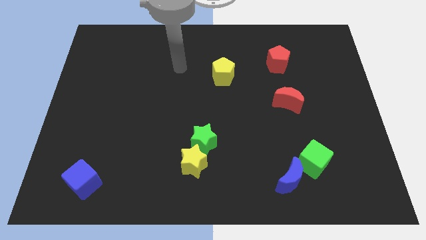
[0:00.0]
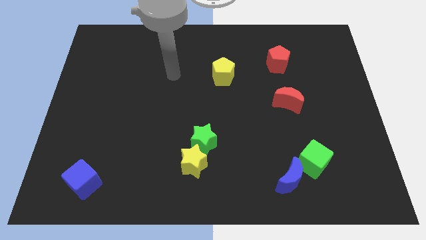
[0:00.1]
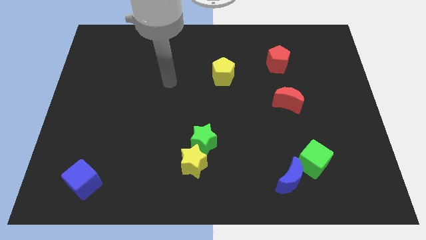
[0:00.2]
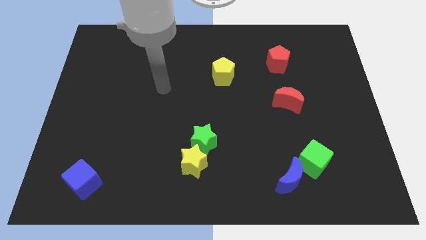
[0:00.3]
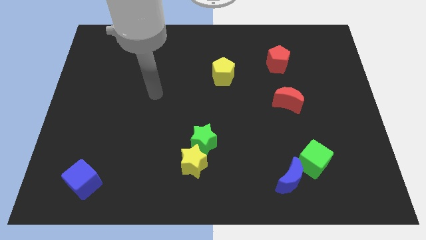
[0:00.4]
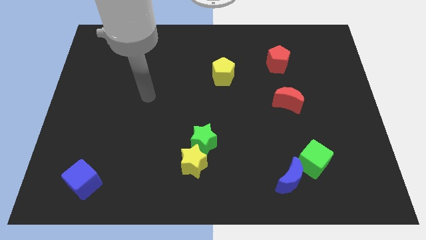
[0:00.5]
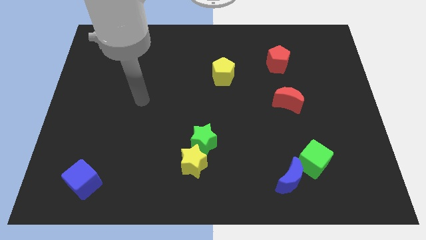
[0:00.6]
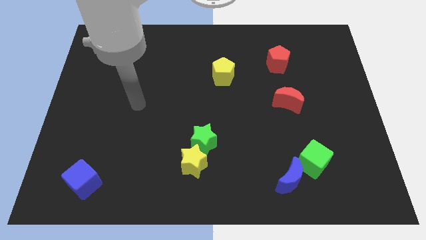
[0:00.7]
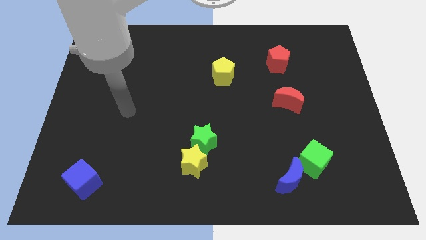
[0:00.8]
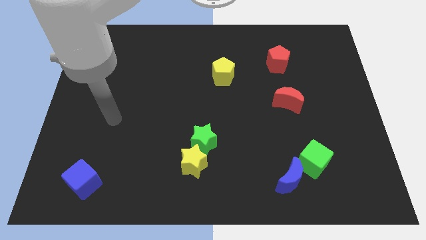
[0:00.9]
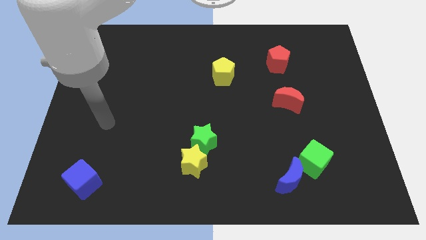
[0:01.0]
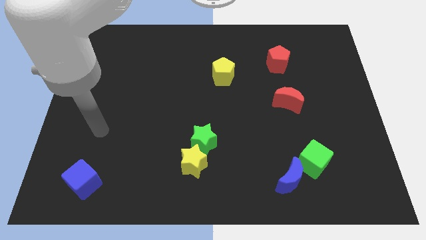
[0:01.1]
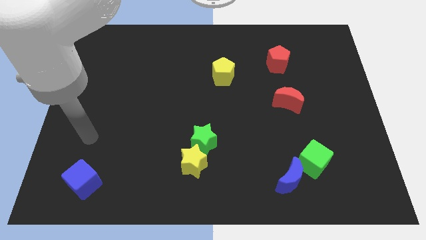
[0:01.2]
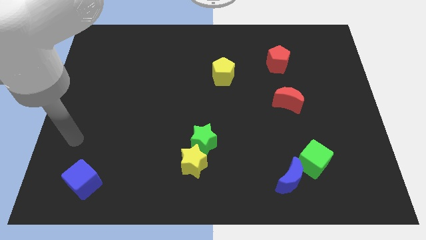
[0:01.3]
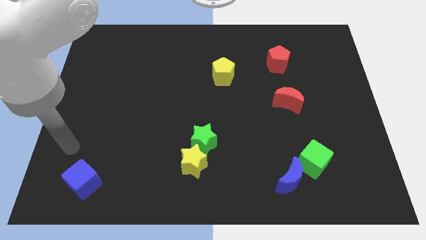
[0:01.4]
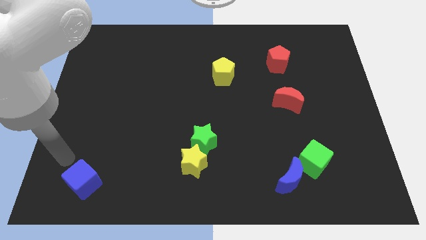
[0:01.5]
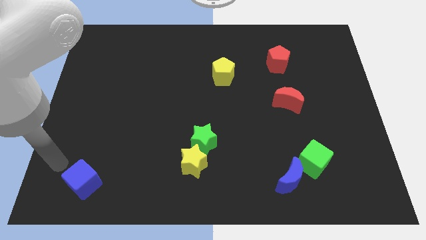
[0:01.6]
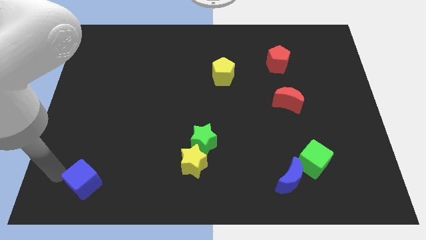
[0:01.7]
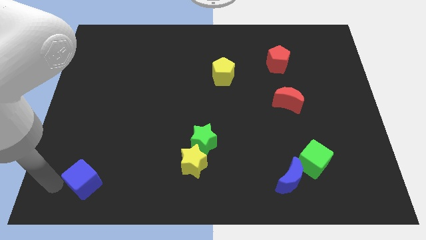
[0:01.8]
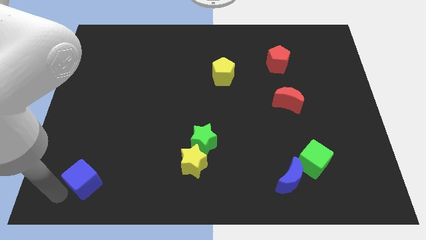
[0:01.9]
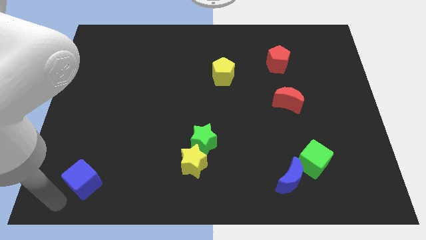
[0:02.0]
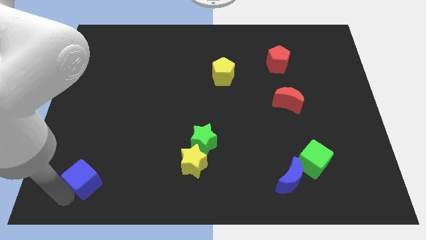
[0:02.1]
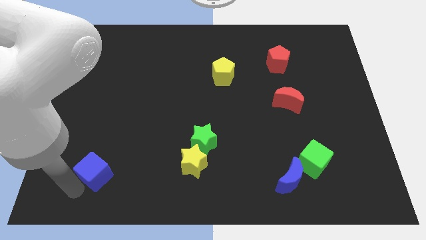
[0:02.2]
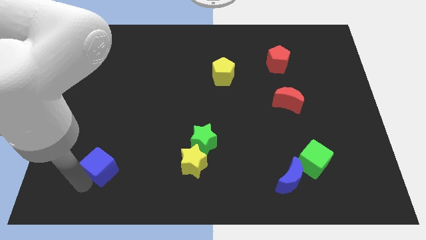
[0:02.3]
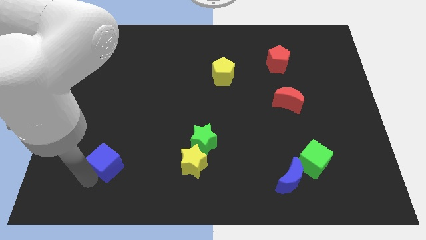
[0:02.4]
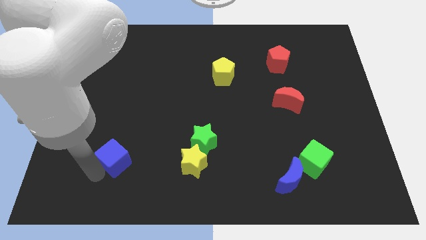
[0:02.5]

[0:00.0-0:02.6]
move the blue cube up and right slightly

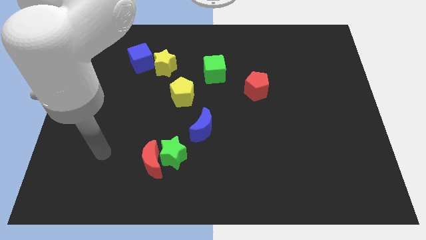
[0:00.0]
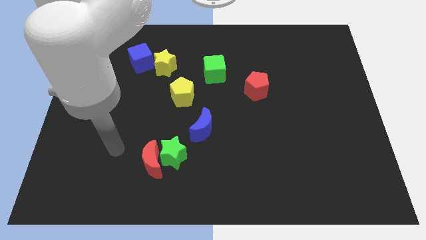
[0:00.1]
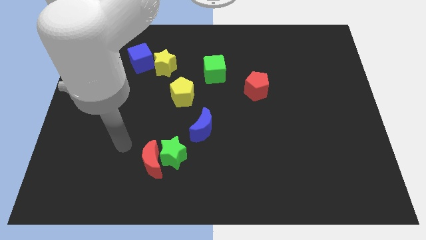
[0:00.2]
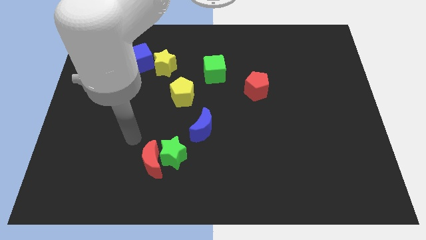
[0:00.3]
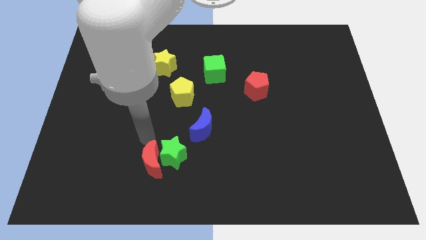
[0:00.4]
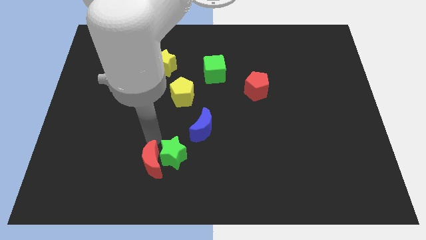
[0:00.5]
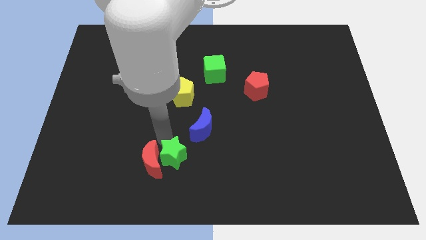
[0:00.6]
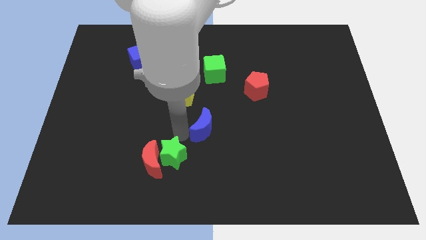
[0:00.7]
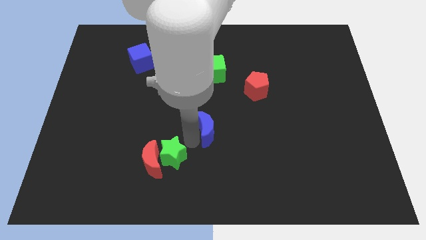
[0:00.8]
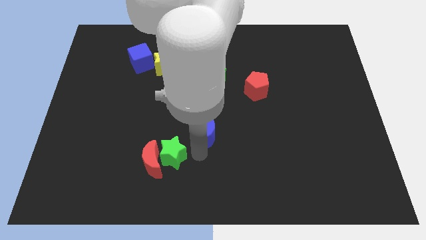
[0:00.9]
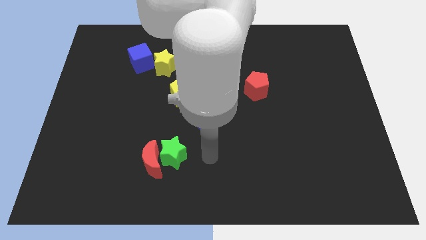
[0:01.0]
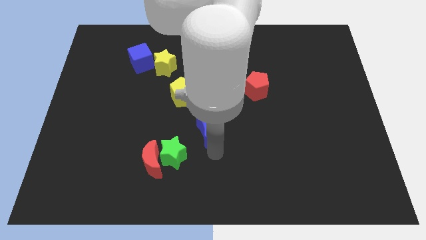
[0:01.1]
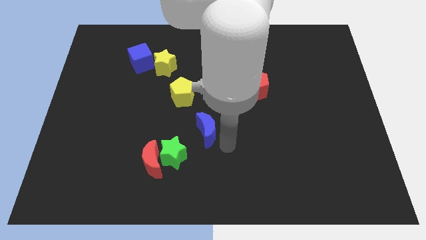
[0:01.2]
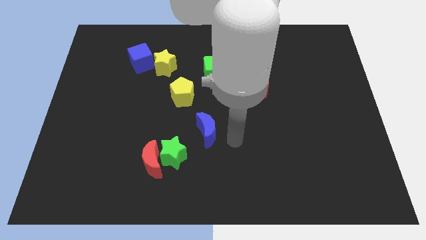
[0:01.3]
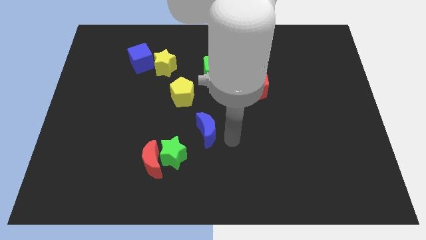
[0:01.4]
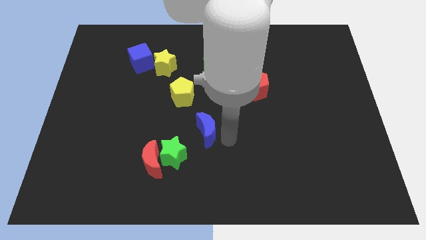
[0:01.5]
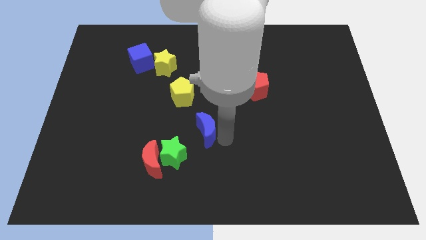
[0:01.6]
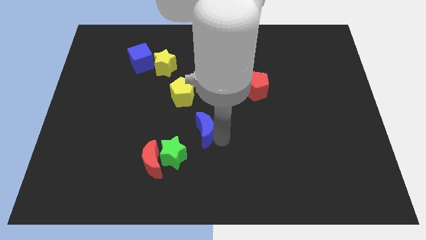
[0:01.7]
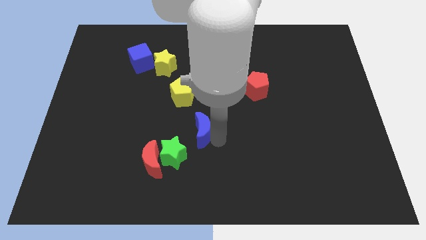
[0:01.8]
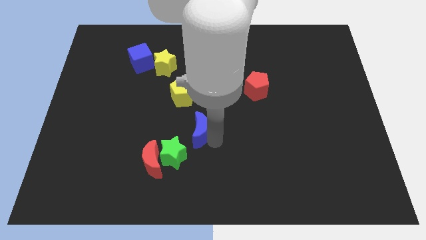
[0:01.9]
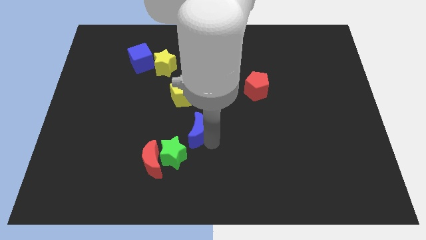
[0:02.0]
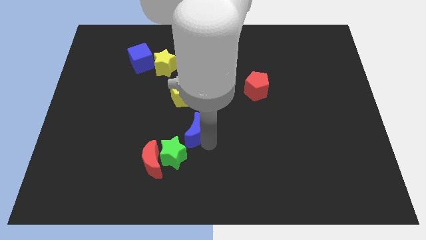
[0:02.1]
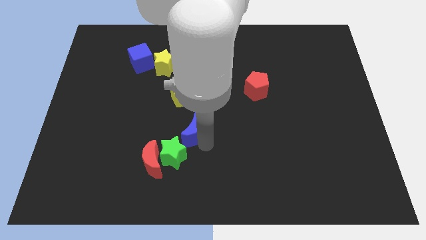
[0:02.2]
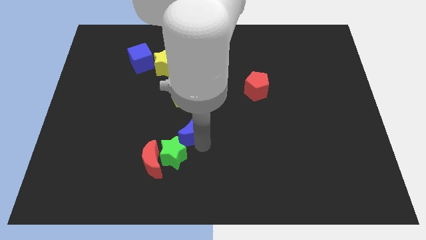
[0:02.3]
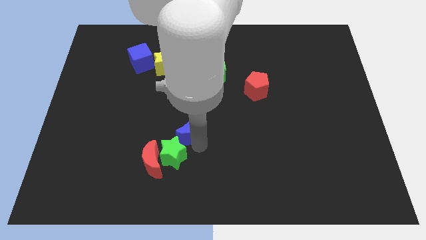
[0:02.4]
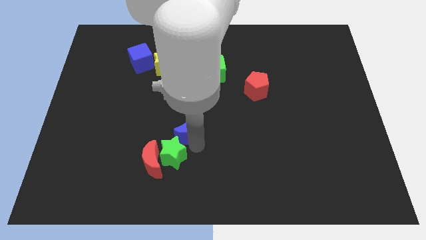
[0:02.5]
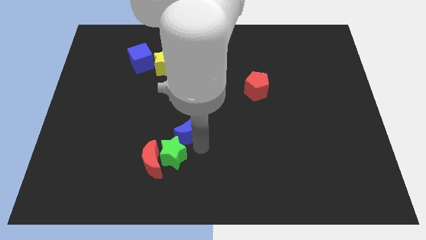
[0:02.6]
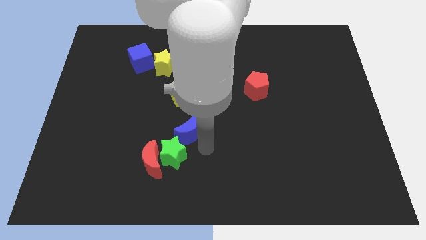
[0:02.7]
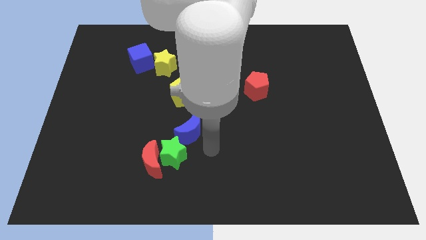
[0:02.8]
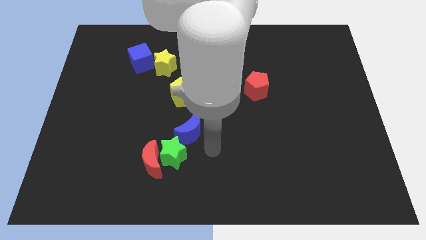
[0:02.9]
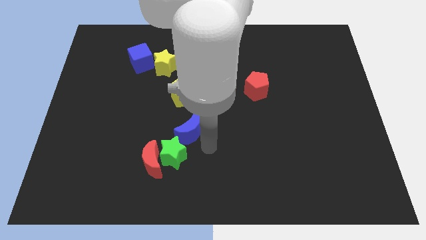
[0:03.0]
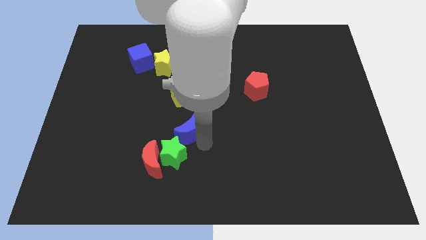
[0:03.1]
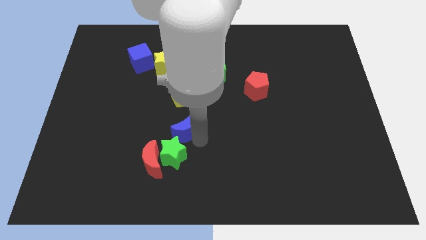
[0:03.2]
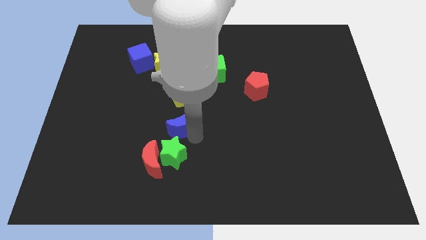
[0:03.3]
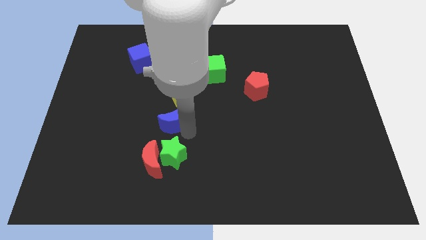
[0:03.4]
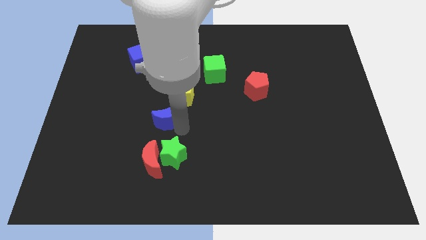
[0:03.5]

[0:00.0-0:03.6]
slightly push the blue moon upwards and left

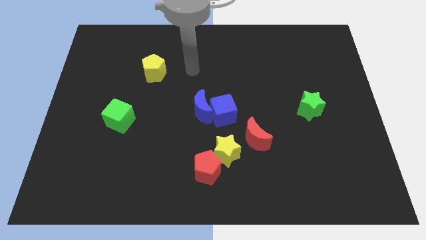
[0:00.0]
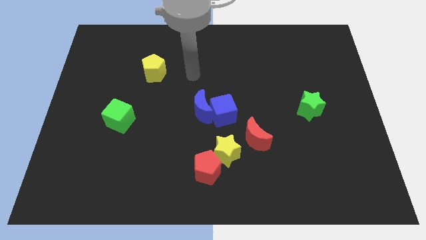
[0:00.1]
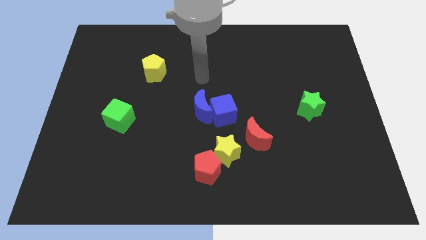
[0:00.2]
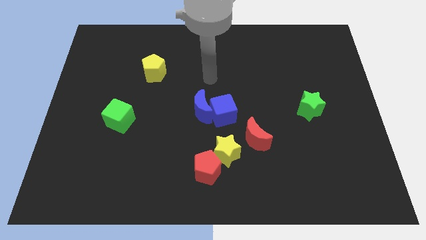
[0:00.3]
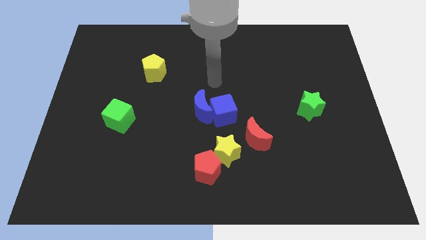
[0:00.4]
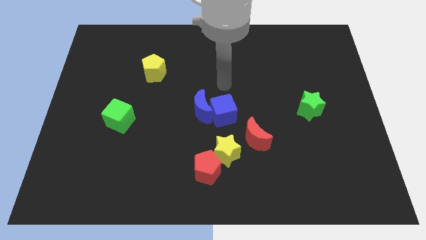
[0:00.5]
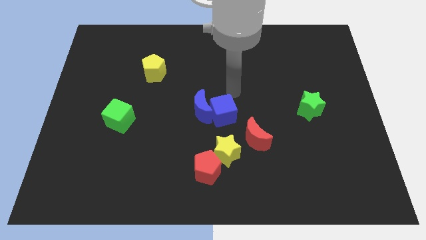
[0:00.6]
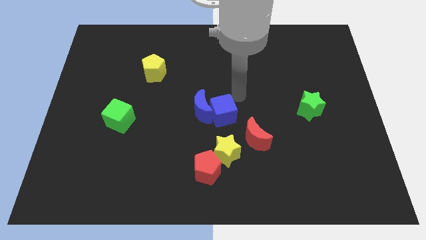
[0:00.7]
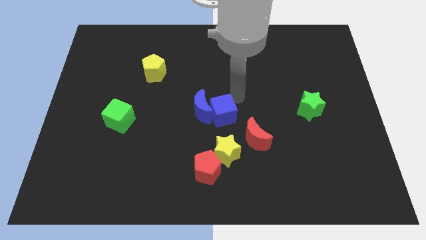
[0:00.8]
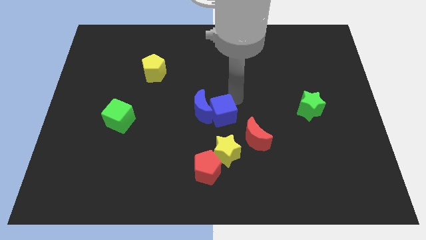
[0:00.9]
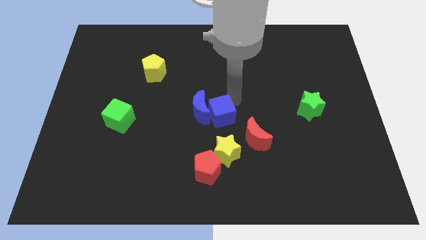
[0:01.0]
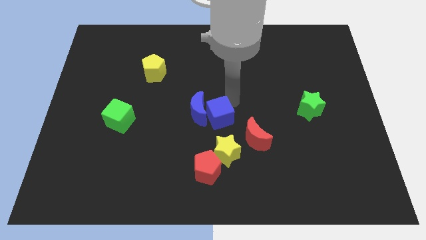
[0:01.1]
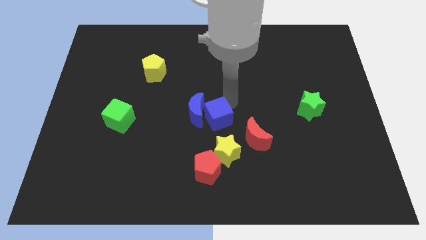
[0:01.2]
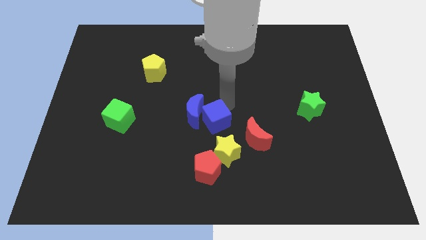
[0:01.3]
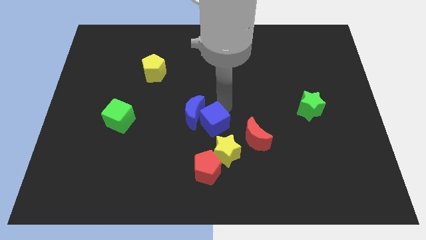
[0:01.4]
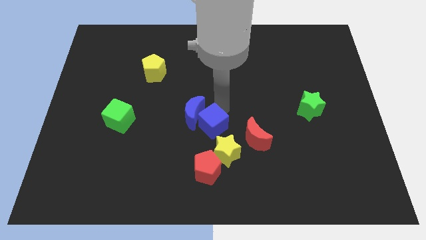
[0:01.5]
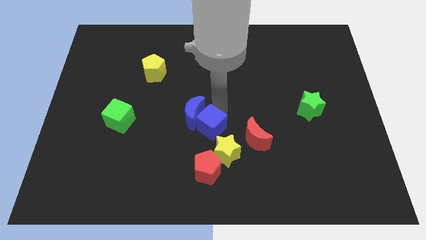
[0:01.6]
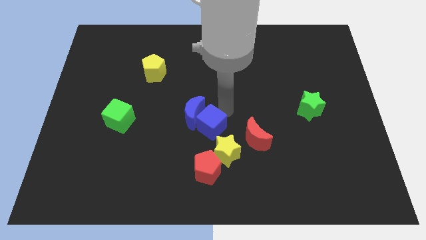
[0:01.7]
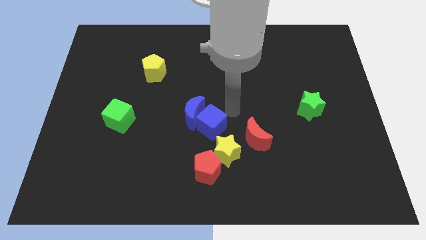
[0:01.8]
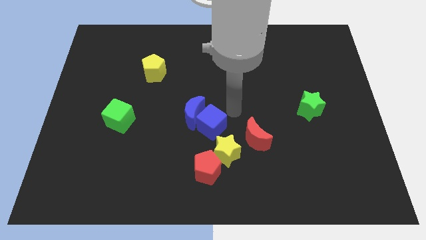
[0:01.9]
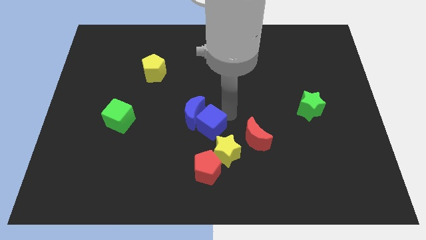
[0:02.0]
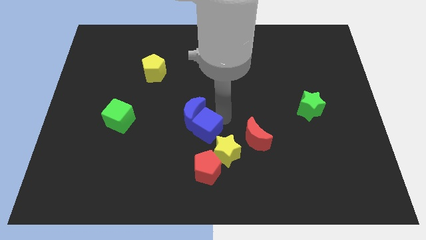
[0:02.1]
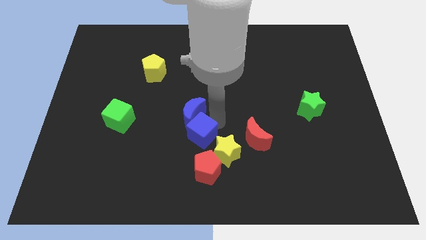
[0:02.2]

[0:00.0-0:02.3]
push the blue cube a little bit diagonally down and left

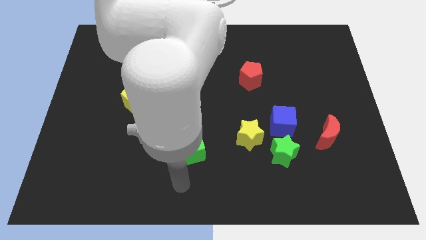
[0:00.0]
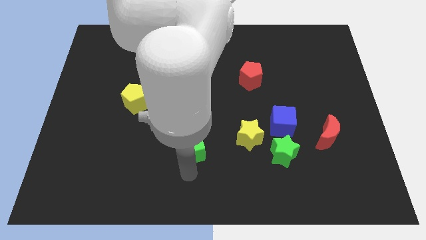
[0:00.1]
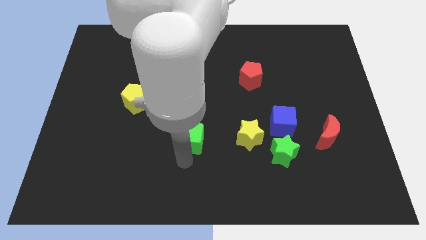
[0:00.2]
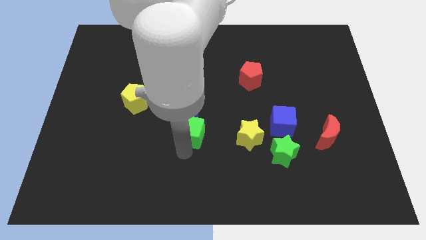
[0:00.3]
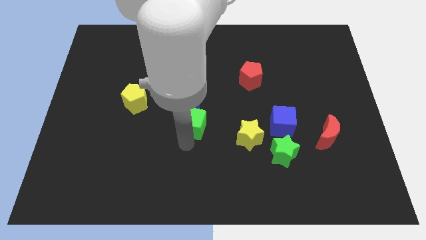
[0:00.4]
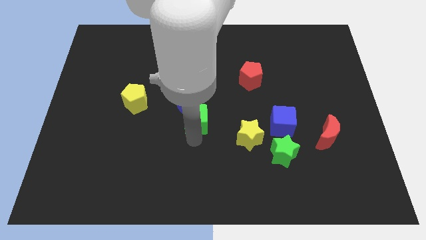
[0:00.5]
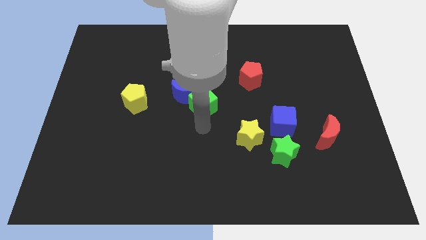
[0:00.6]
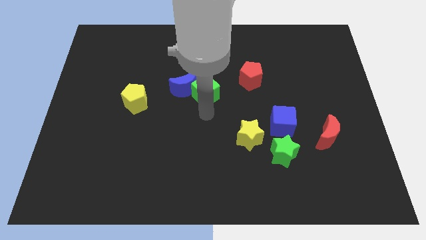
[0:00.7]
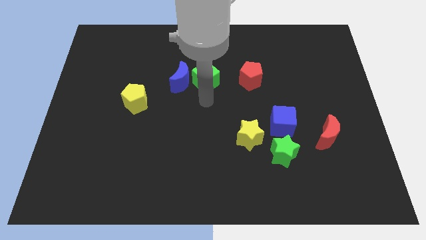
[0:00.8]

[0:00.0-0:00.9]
push the blue moon up and then left a bit
